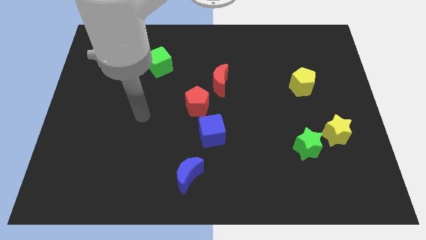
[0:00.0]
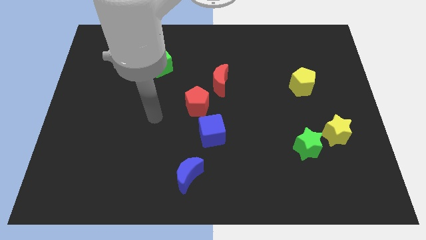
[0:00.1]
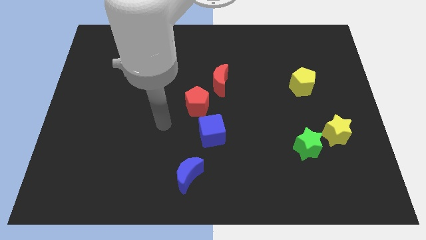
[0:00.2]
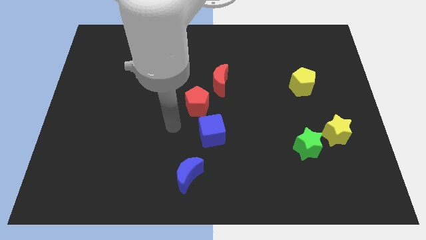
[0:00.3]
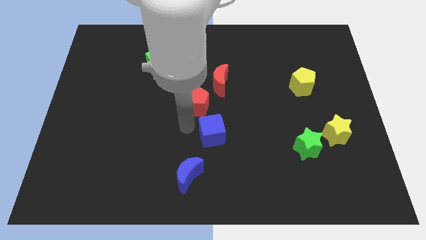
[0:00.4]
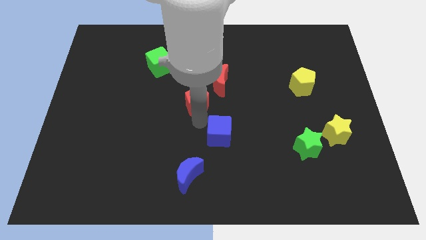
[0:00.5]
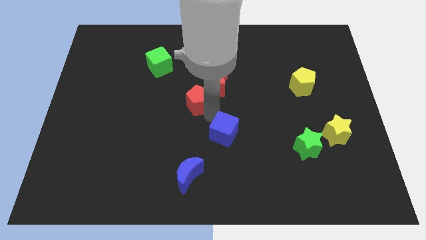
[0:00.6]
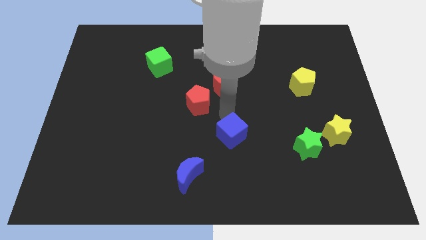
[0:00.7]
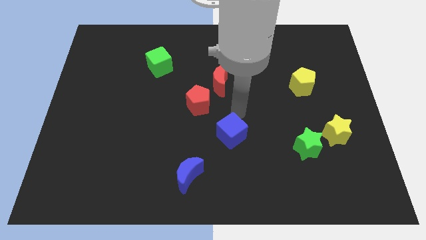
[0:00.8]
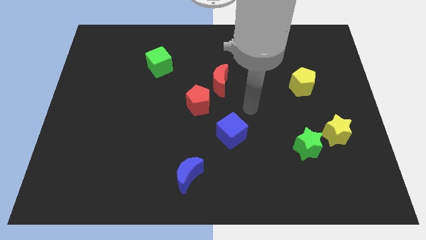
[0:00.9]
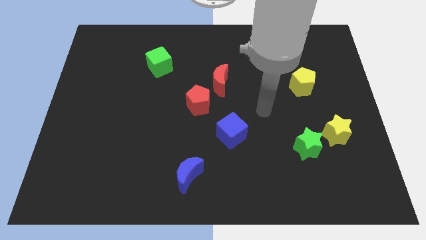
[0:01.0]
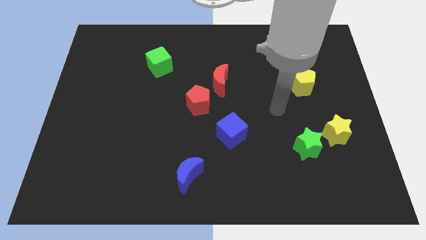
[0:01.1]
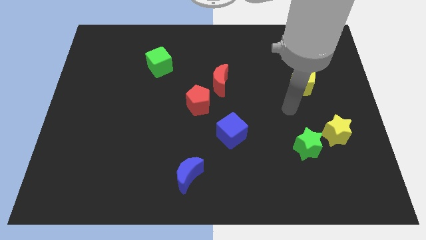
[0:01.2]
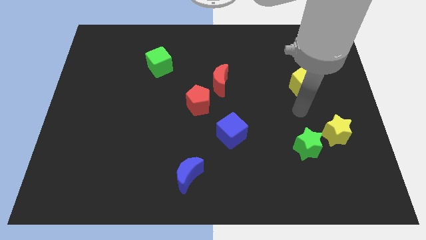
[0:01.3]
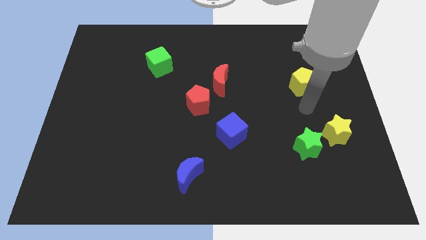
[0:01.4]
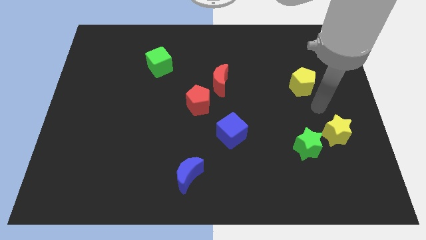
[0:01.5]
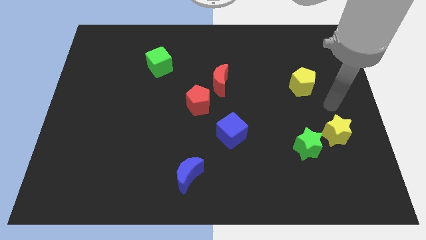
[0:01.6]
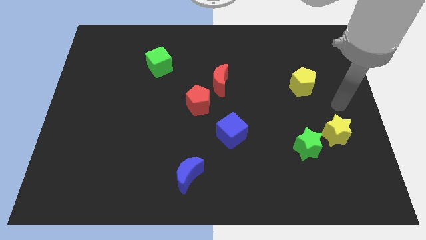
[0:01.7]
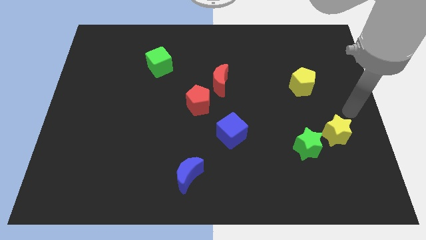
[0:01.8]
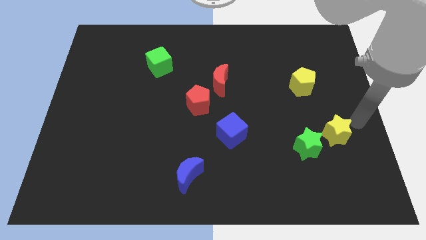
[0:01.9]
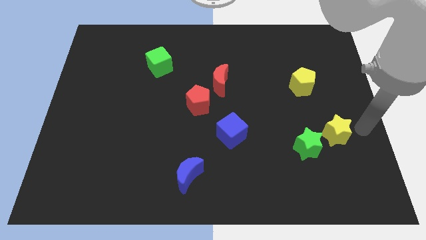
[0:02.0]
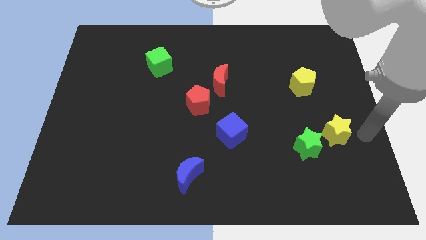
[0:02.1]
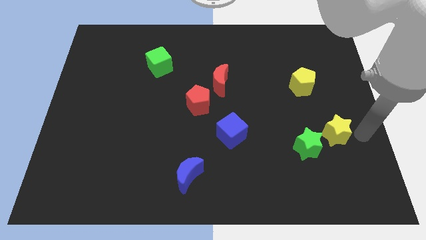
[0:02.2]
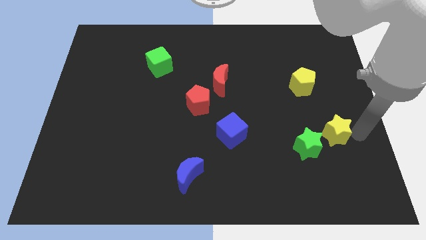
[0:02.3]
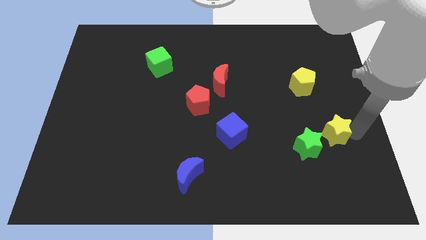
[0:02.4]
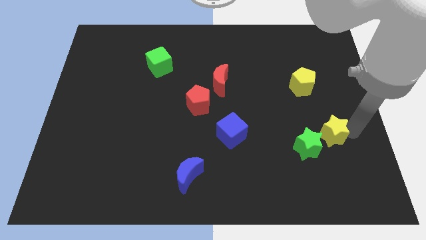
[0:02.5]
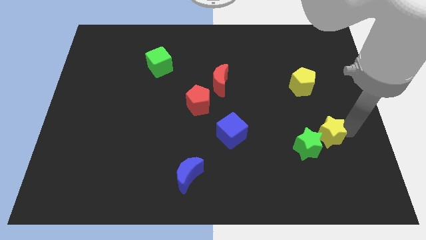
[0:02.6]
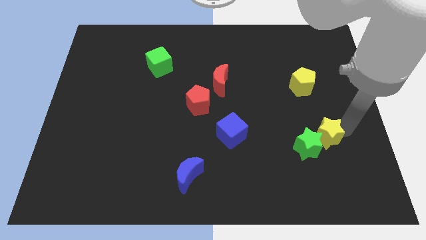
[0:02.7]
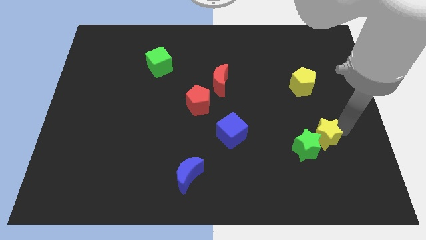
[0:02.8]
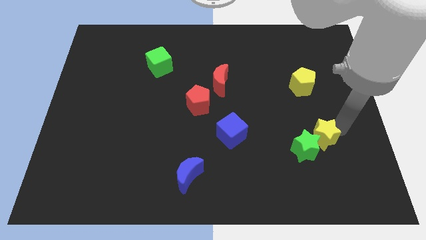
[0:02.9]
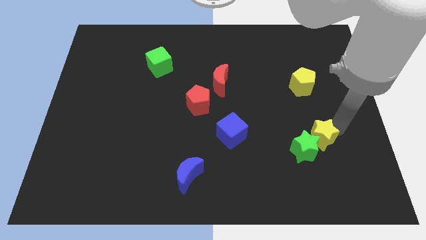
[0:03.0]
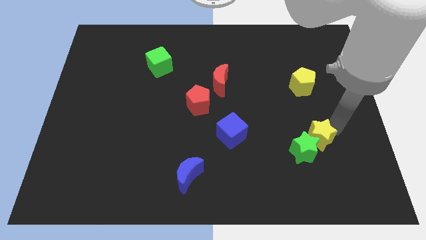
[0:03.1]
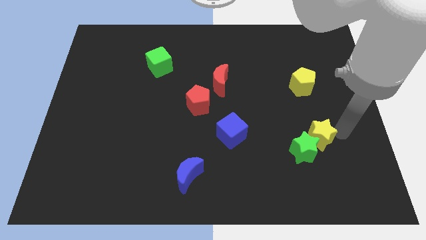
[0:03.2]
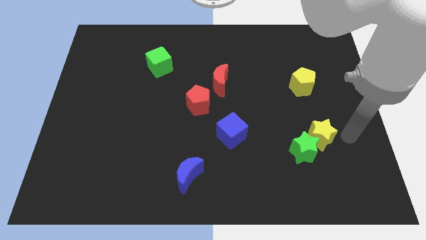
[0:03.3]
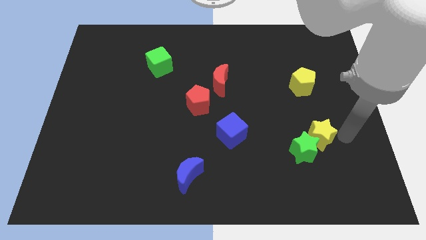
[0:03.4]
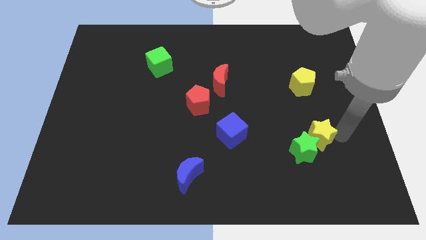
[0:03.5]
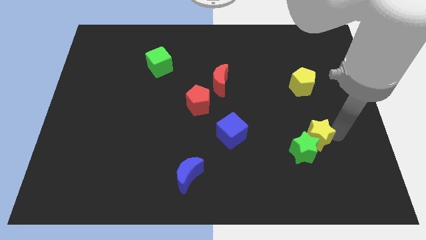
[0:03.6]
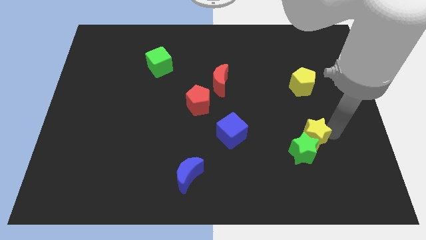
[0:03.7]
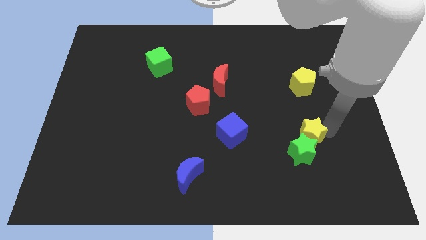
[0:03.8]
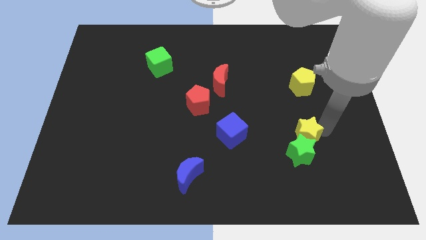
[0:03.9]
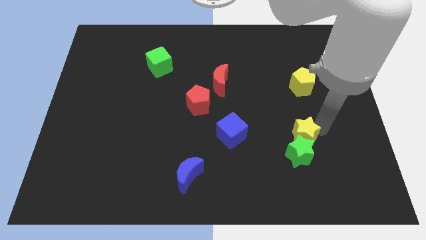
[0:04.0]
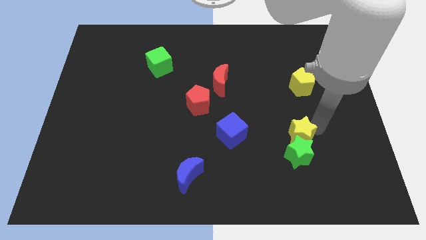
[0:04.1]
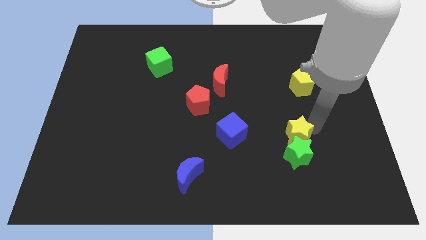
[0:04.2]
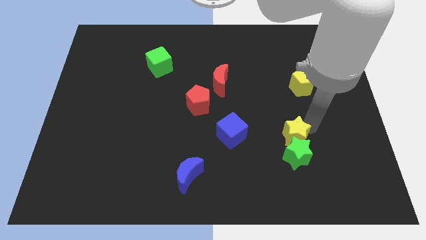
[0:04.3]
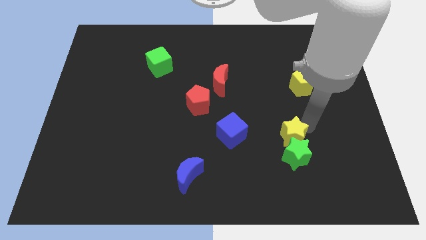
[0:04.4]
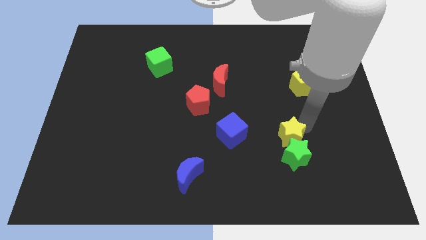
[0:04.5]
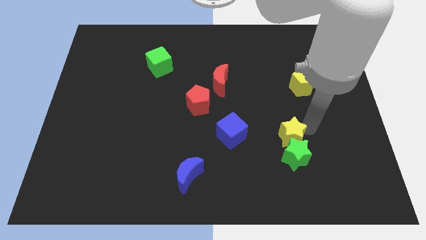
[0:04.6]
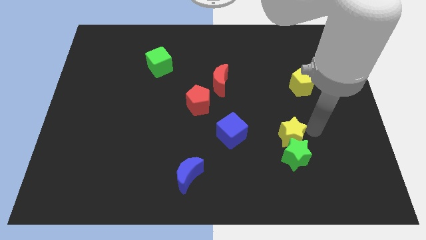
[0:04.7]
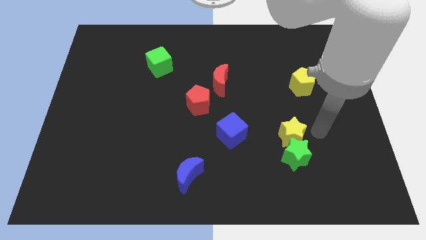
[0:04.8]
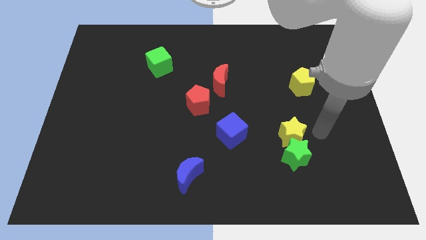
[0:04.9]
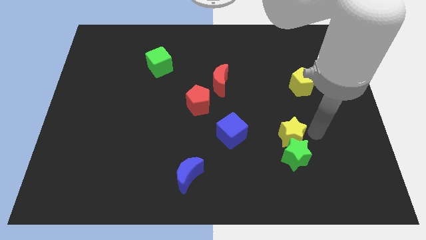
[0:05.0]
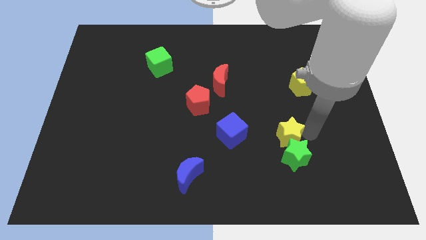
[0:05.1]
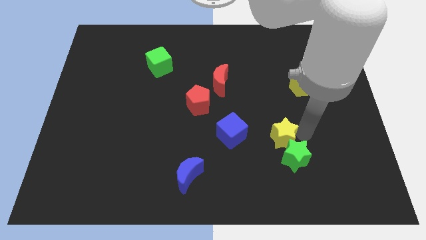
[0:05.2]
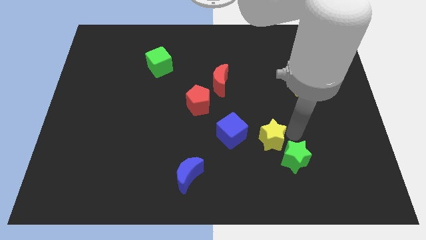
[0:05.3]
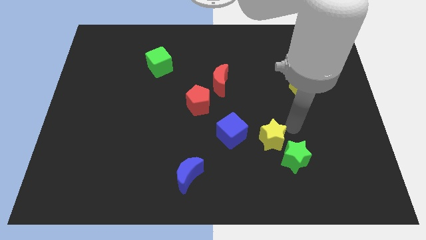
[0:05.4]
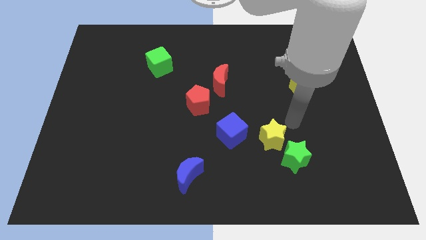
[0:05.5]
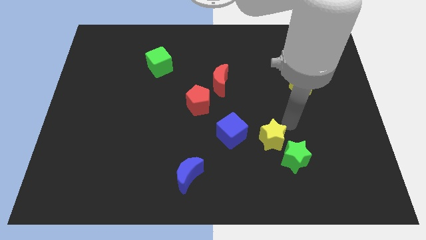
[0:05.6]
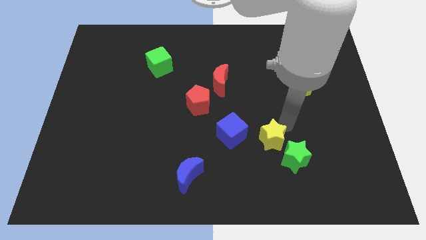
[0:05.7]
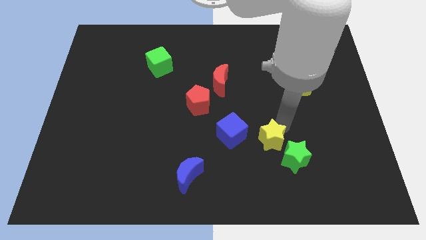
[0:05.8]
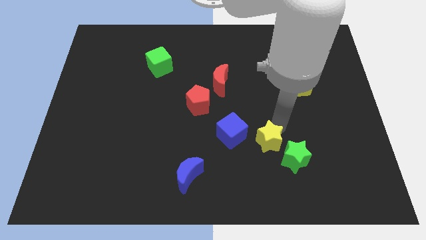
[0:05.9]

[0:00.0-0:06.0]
move the yellow star to the left of the green star

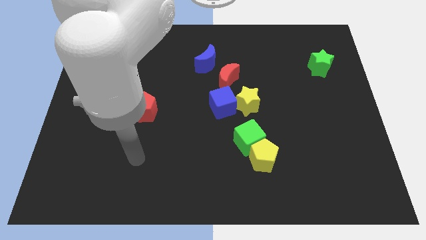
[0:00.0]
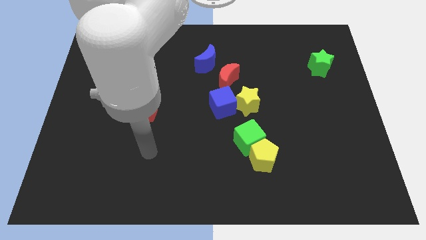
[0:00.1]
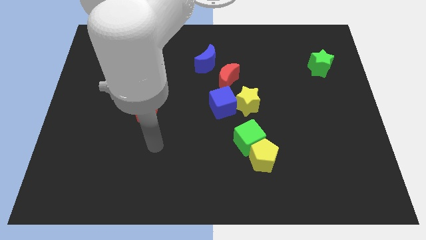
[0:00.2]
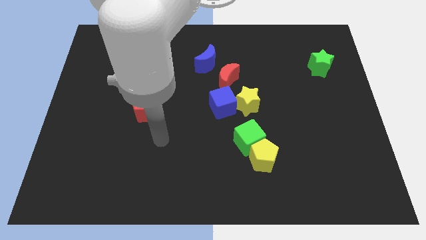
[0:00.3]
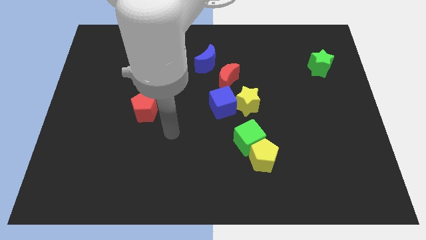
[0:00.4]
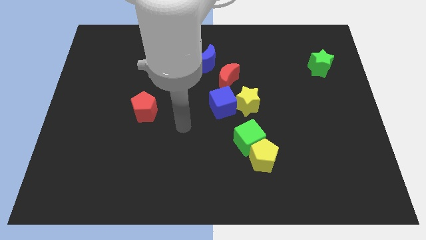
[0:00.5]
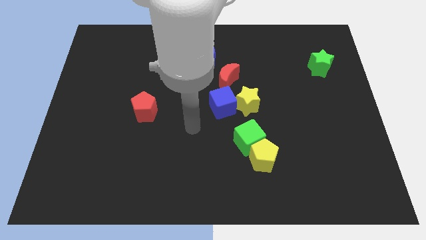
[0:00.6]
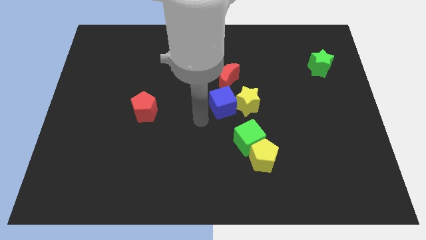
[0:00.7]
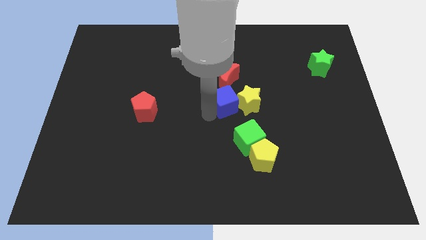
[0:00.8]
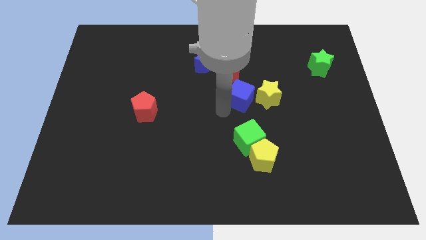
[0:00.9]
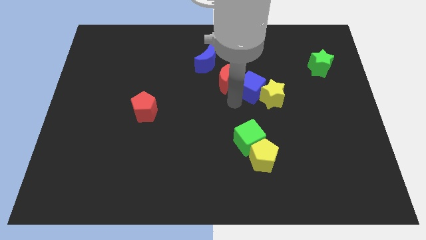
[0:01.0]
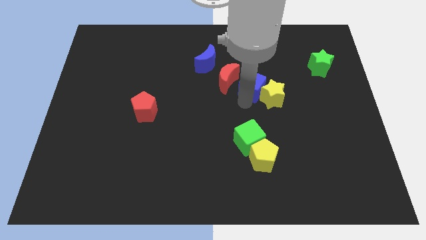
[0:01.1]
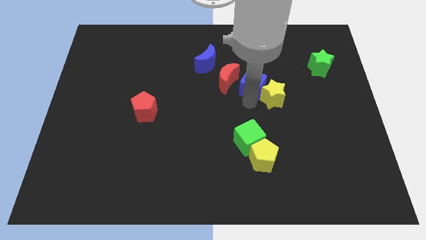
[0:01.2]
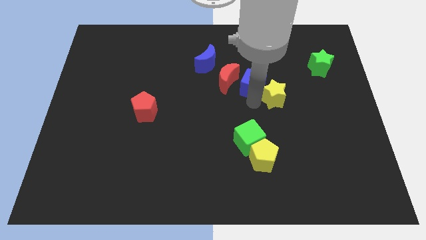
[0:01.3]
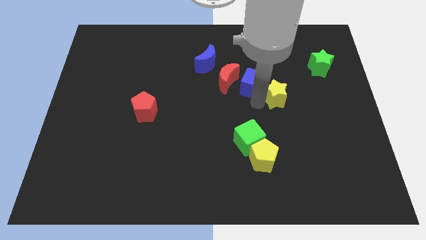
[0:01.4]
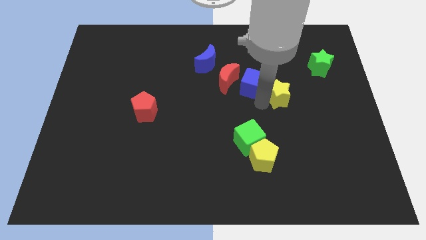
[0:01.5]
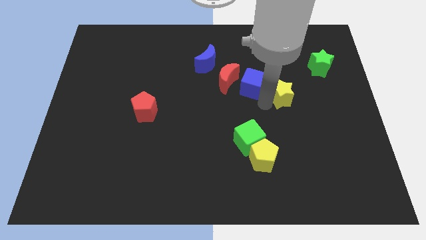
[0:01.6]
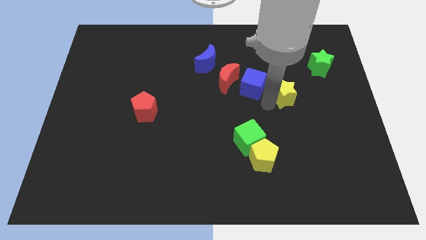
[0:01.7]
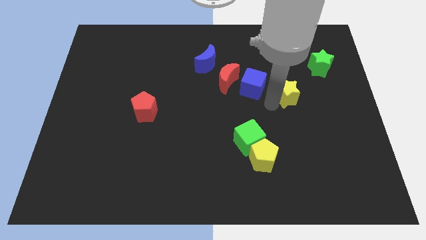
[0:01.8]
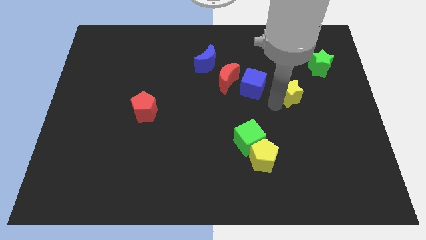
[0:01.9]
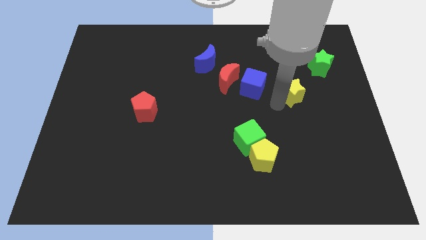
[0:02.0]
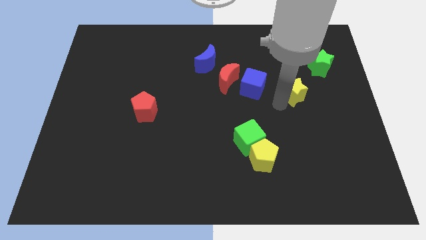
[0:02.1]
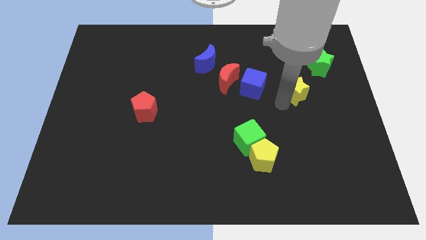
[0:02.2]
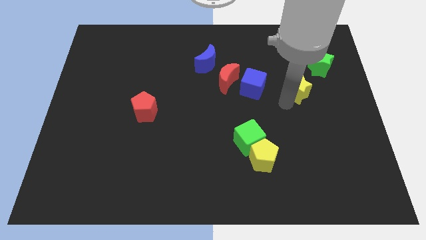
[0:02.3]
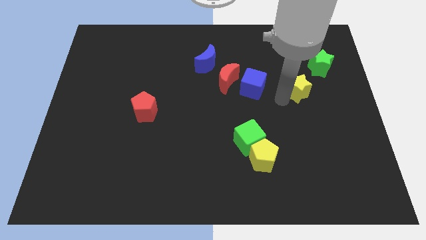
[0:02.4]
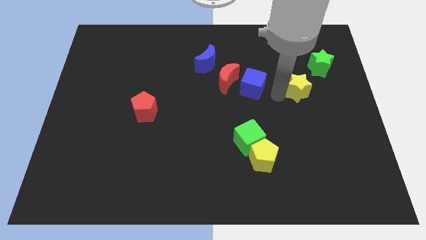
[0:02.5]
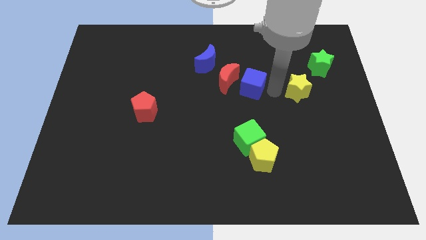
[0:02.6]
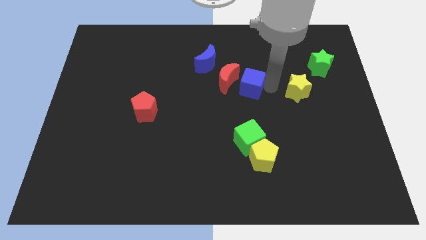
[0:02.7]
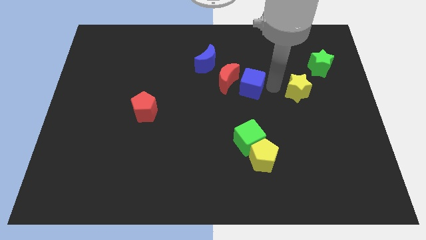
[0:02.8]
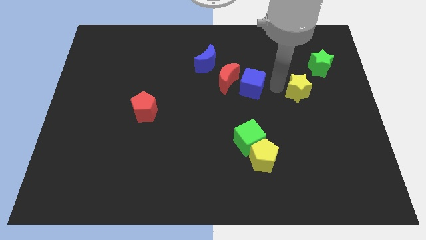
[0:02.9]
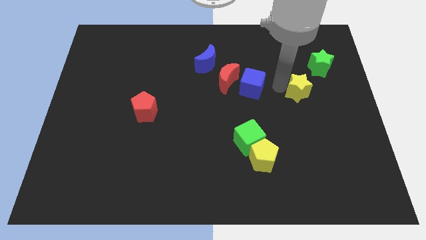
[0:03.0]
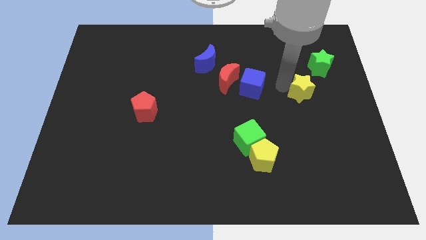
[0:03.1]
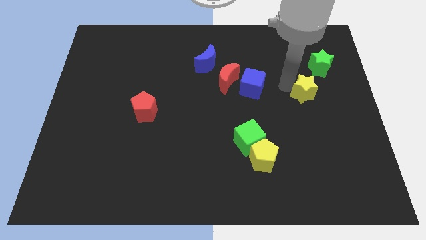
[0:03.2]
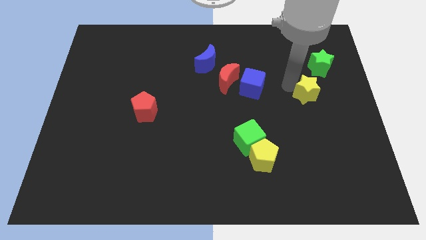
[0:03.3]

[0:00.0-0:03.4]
slide the yellow star below the green star
